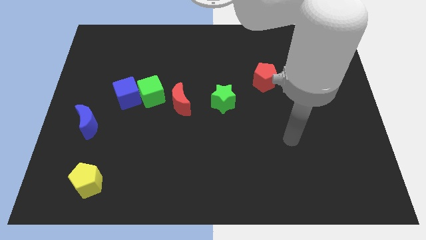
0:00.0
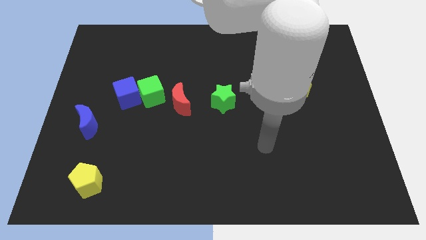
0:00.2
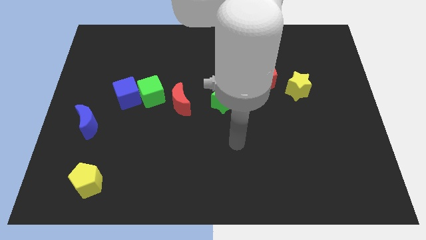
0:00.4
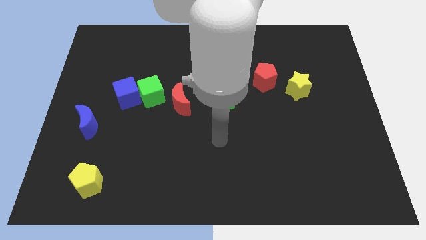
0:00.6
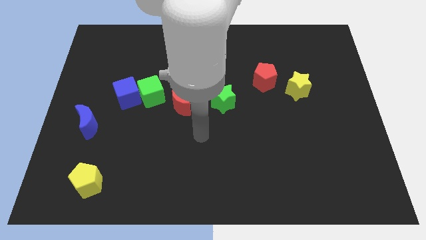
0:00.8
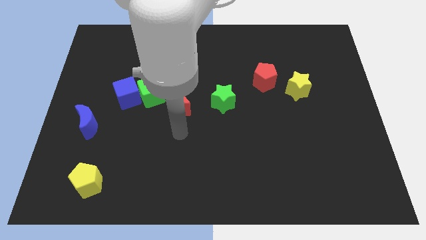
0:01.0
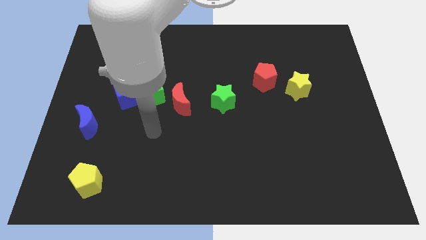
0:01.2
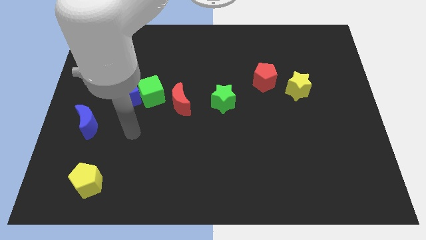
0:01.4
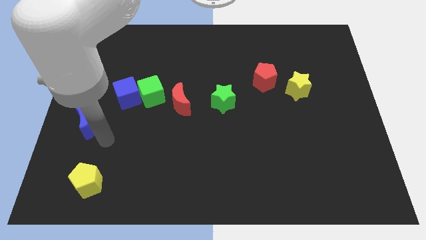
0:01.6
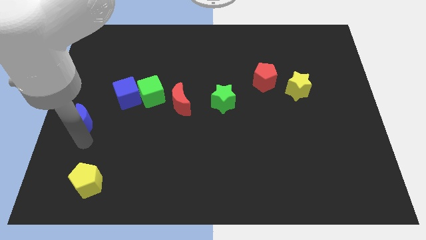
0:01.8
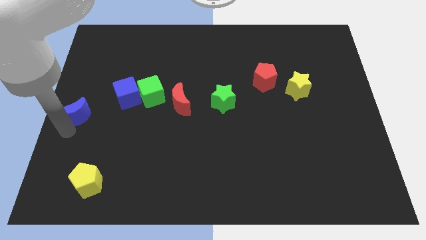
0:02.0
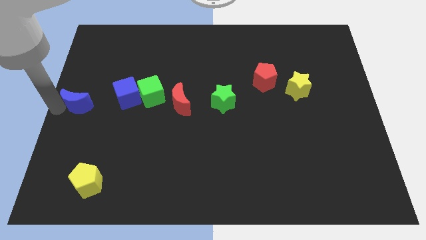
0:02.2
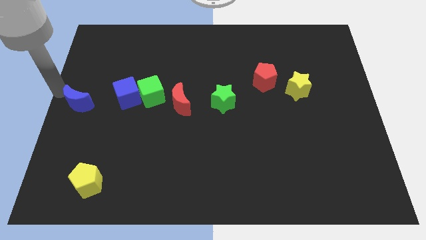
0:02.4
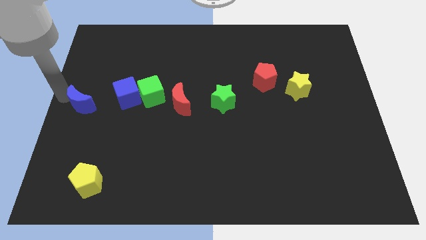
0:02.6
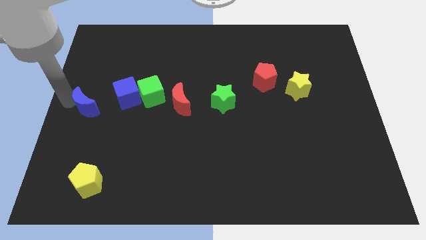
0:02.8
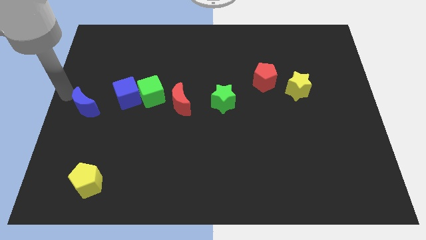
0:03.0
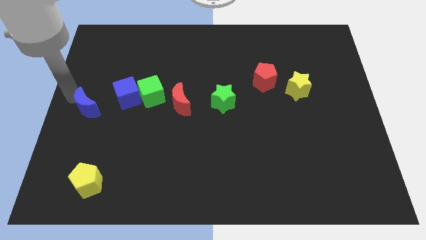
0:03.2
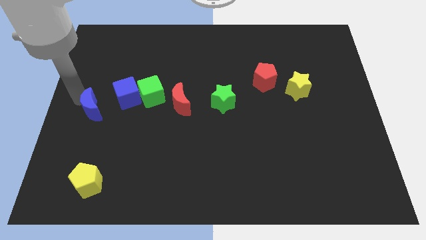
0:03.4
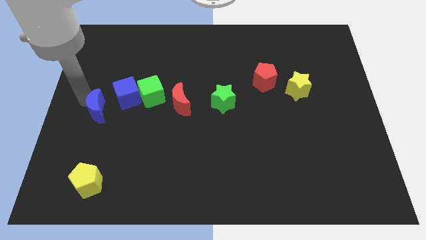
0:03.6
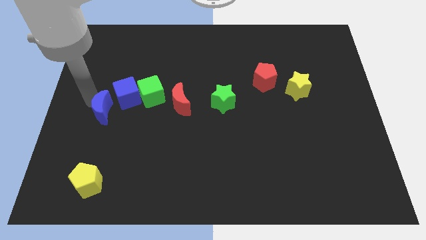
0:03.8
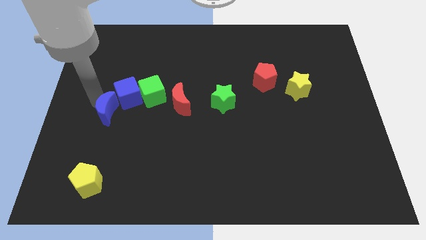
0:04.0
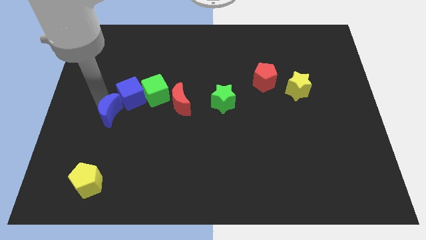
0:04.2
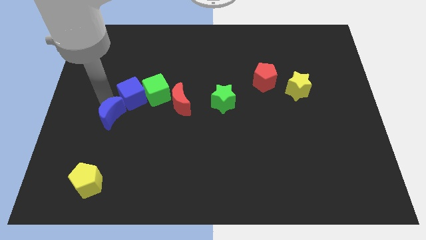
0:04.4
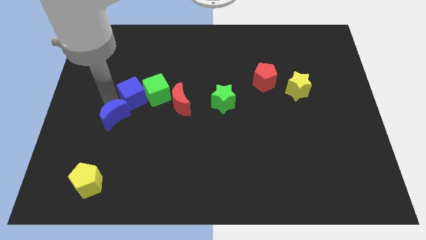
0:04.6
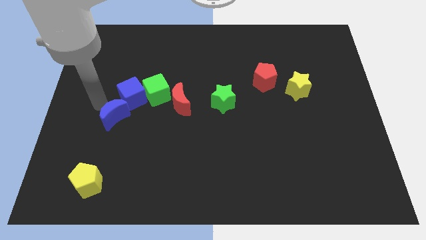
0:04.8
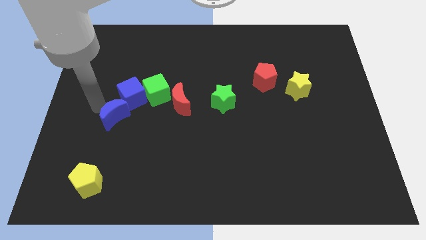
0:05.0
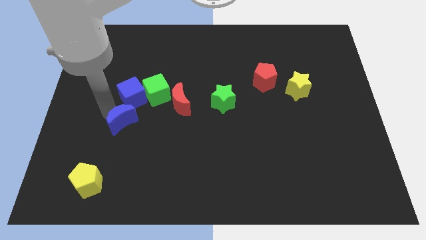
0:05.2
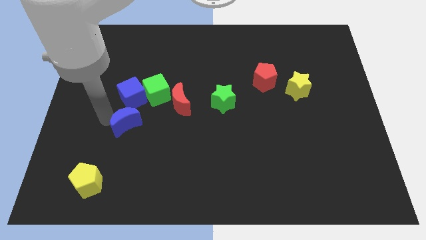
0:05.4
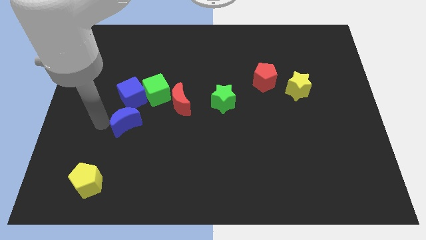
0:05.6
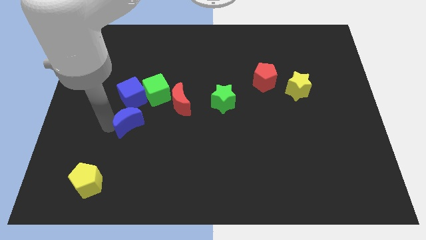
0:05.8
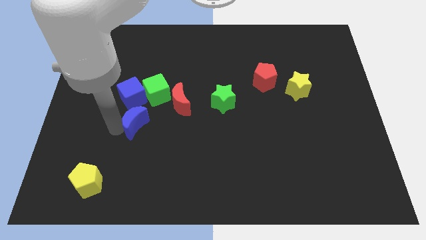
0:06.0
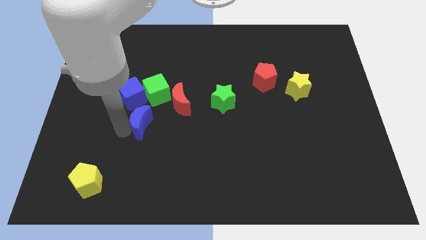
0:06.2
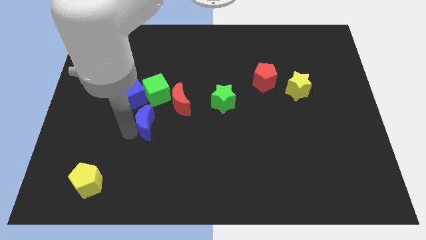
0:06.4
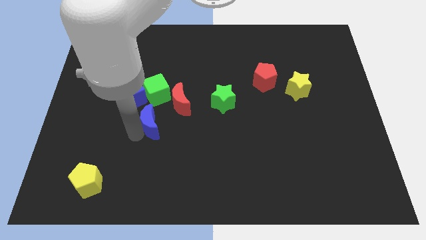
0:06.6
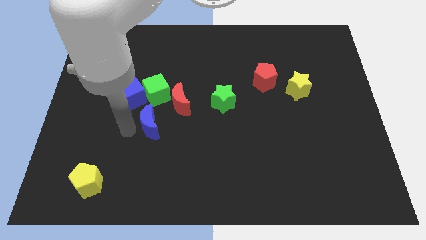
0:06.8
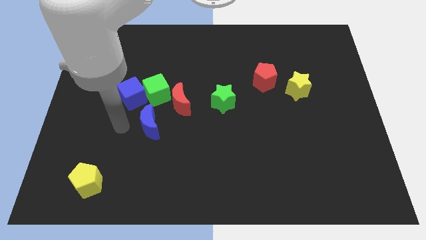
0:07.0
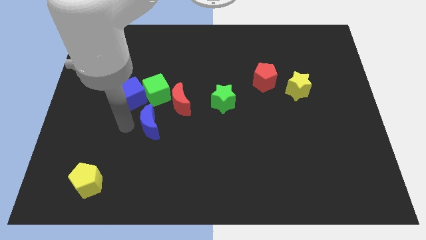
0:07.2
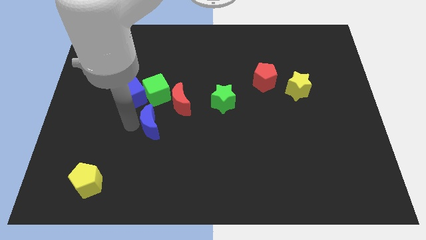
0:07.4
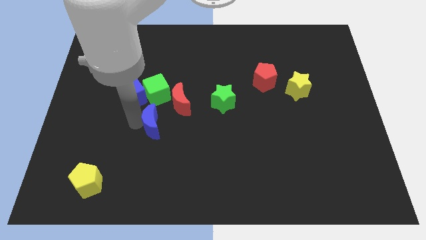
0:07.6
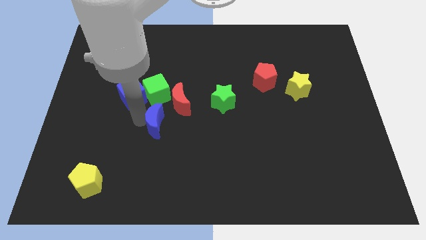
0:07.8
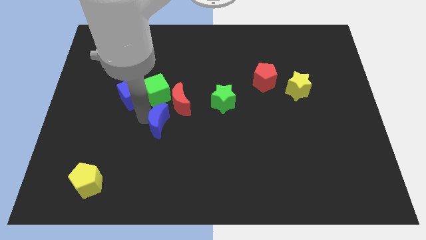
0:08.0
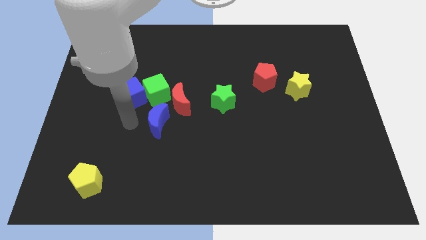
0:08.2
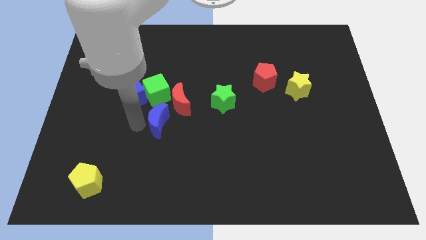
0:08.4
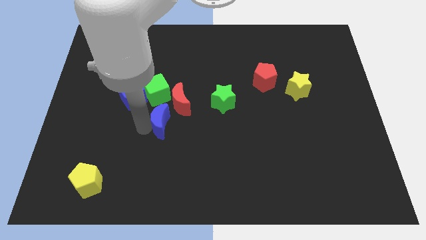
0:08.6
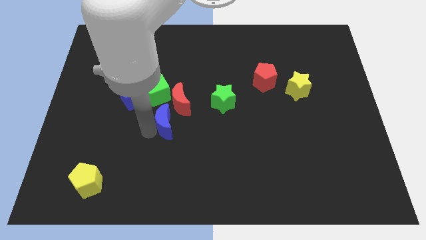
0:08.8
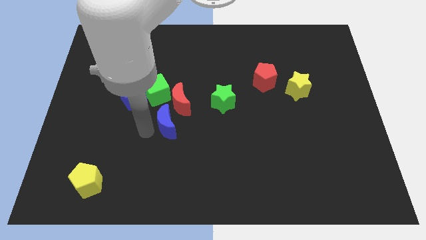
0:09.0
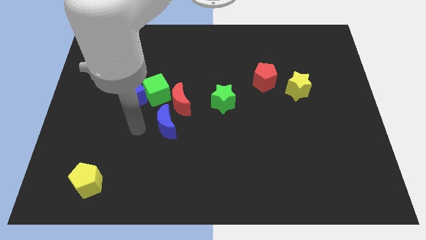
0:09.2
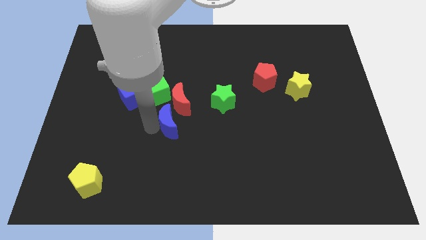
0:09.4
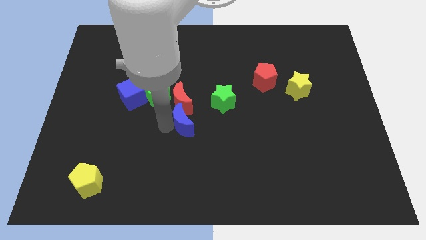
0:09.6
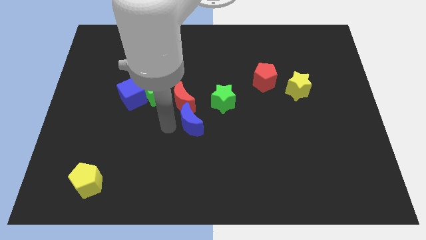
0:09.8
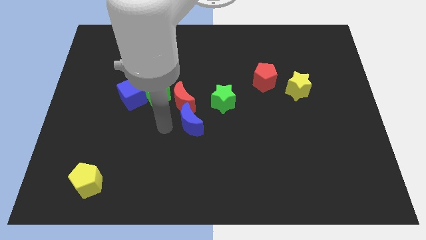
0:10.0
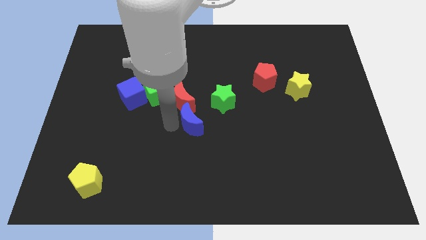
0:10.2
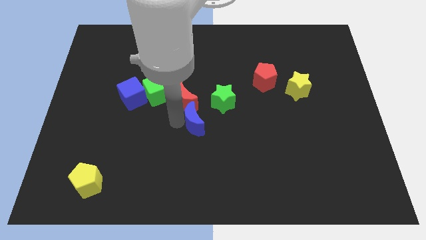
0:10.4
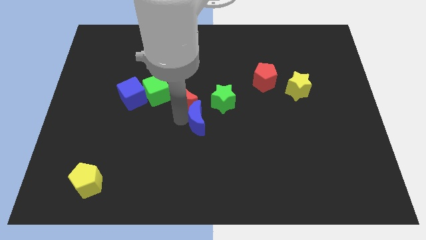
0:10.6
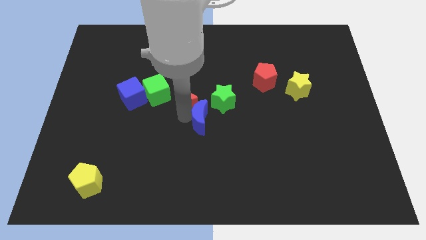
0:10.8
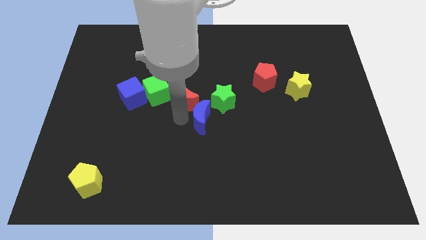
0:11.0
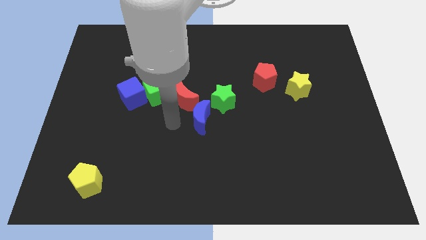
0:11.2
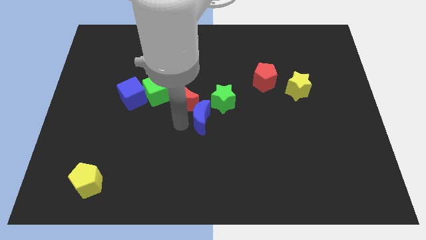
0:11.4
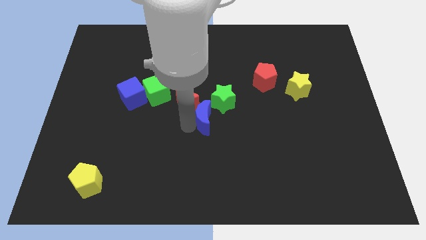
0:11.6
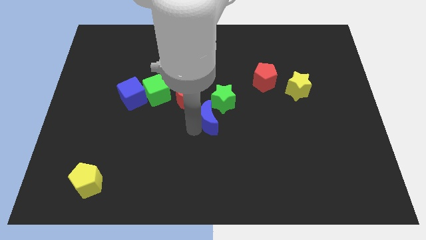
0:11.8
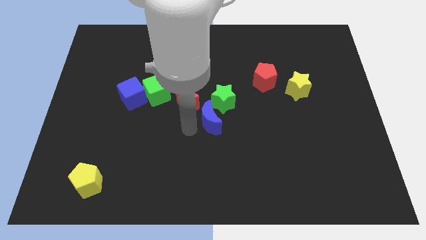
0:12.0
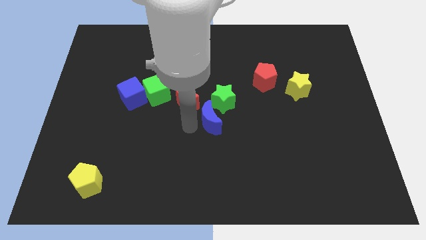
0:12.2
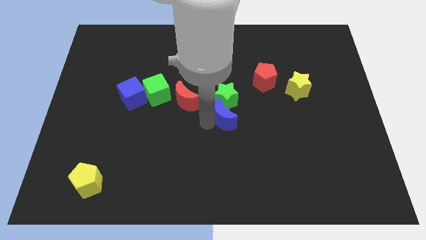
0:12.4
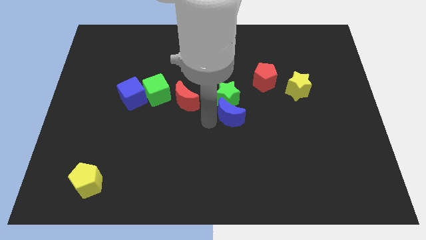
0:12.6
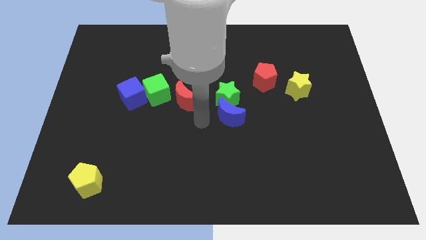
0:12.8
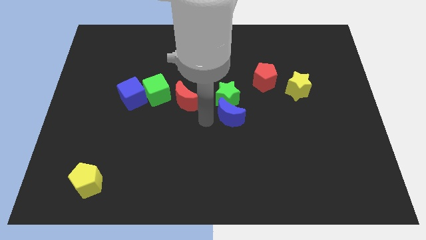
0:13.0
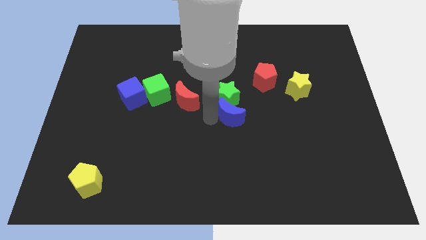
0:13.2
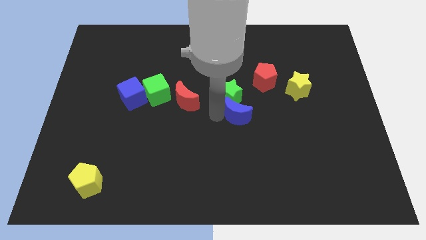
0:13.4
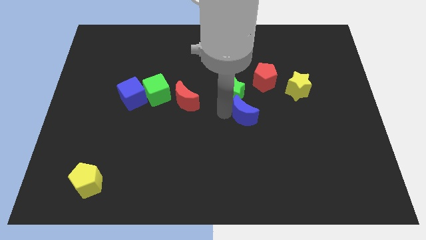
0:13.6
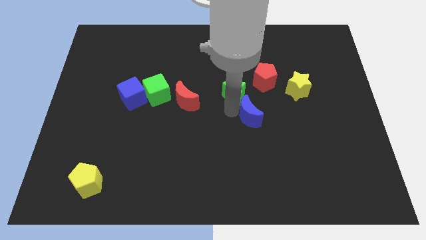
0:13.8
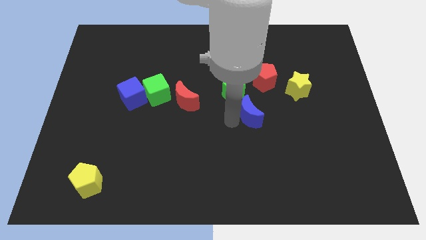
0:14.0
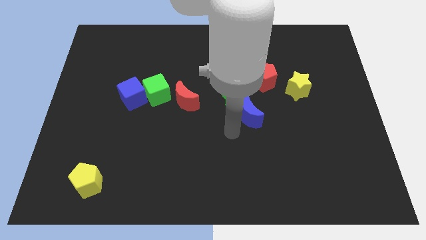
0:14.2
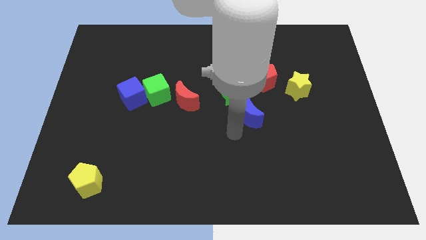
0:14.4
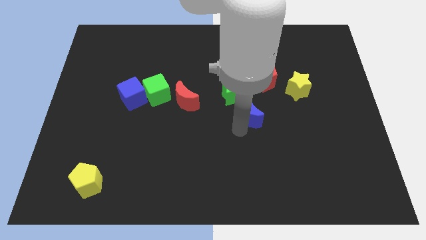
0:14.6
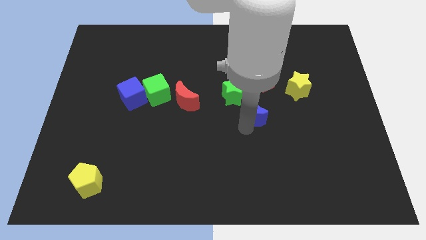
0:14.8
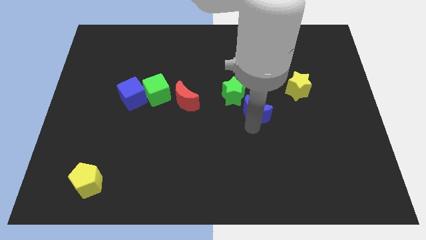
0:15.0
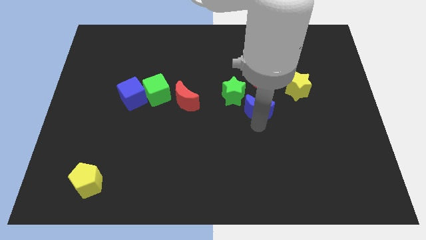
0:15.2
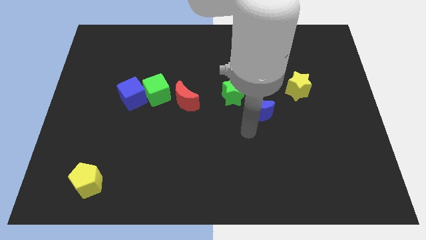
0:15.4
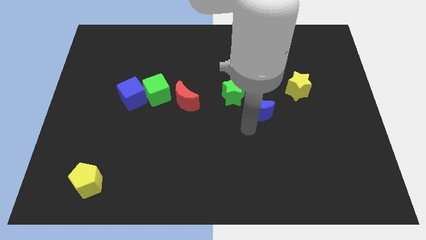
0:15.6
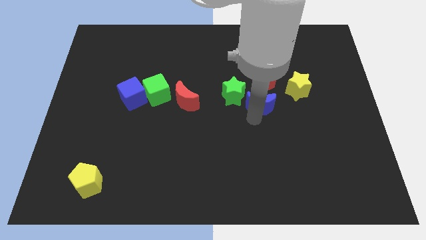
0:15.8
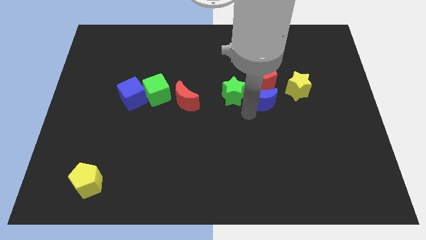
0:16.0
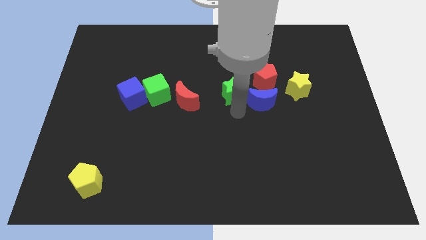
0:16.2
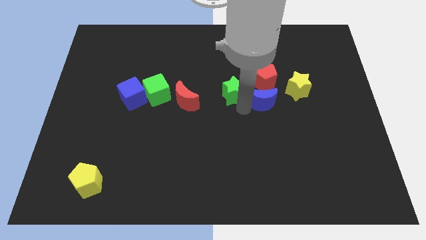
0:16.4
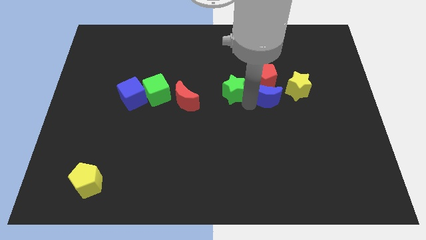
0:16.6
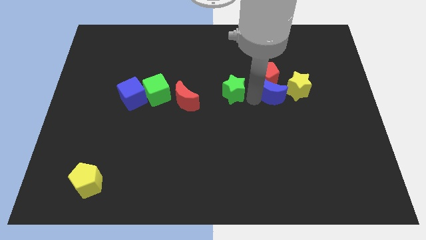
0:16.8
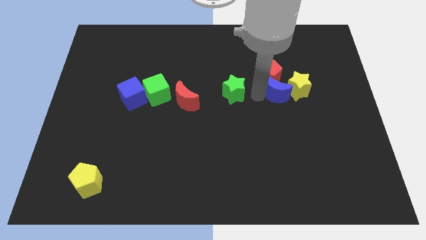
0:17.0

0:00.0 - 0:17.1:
put the blue moon next to the yellow star
